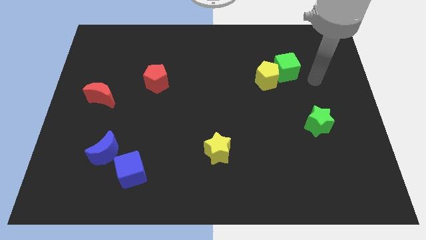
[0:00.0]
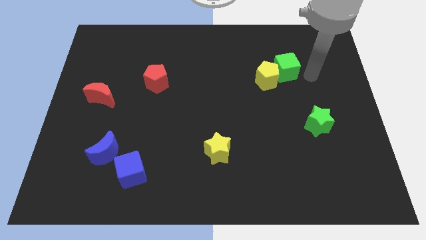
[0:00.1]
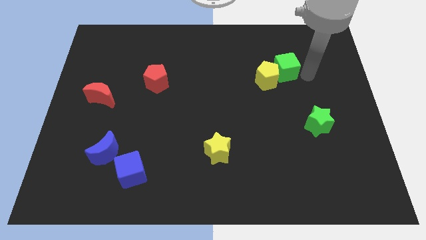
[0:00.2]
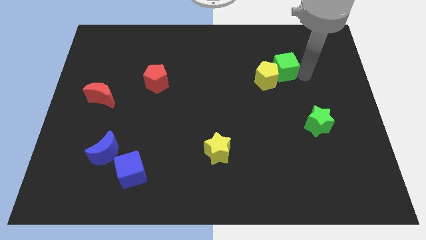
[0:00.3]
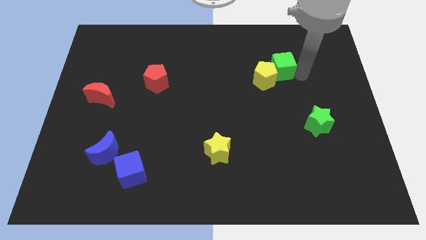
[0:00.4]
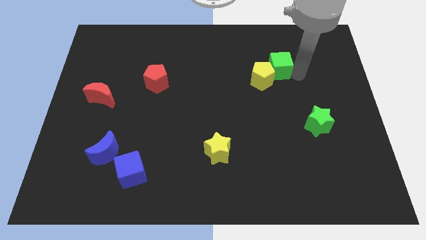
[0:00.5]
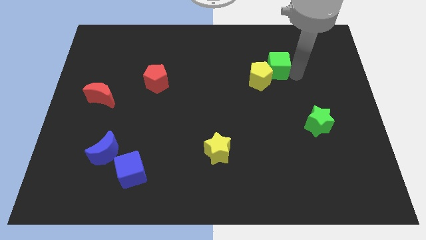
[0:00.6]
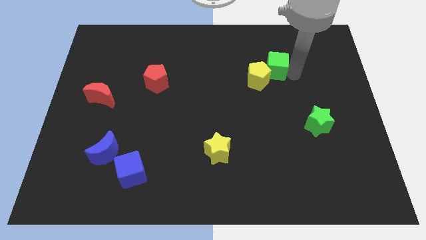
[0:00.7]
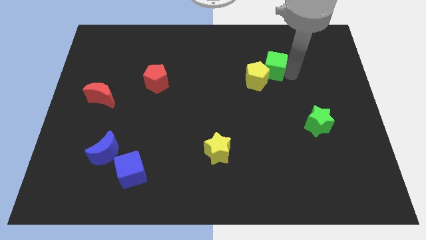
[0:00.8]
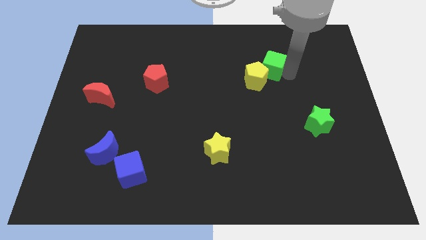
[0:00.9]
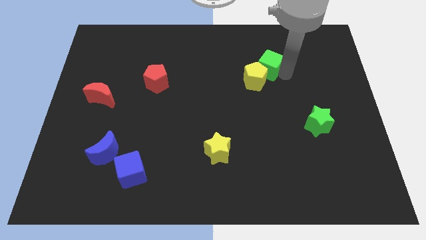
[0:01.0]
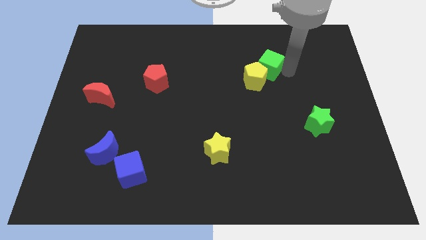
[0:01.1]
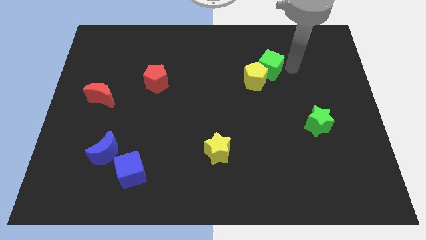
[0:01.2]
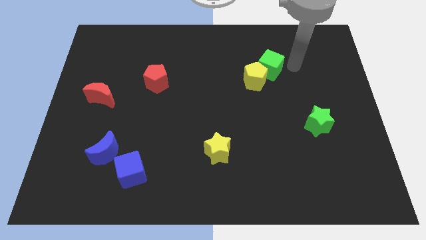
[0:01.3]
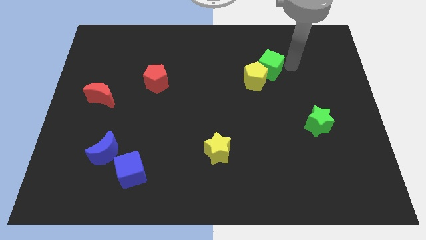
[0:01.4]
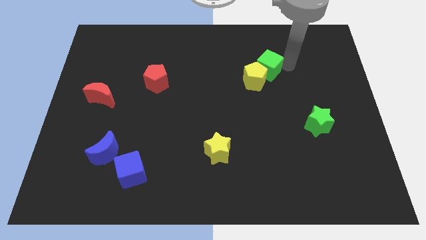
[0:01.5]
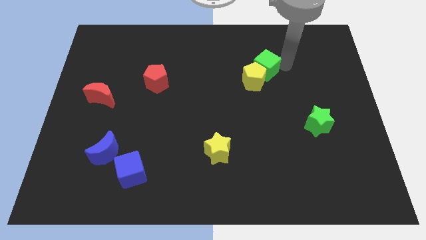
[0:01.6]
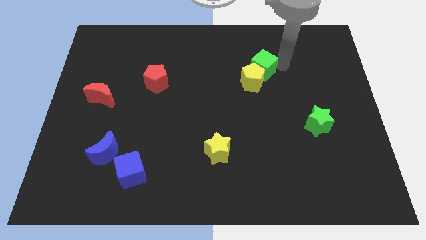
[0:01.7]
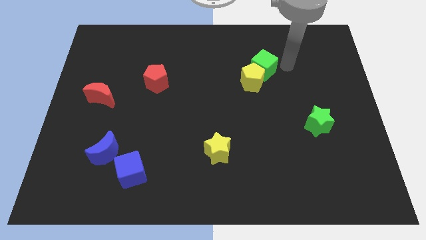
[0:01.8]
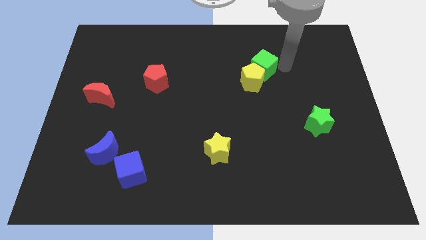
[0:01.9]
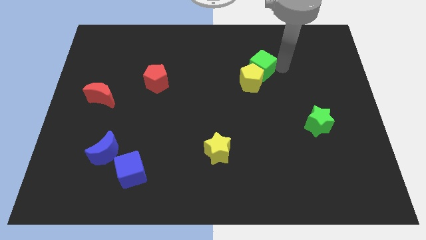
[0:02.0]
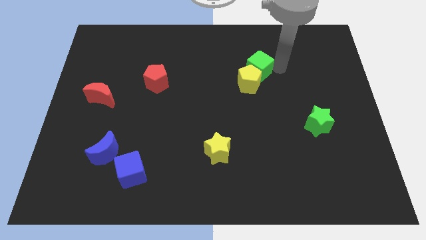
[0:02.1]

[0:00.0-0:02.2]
slightly push the green cube to the left

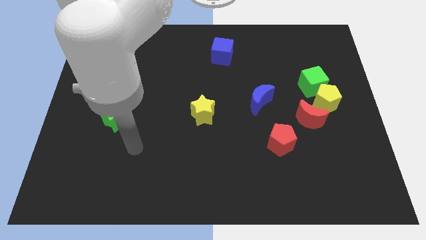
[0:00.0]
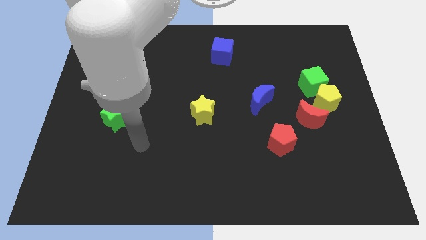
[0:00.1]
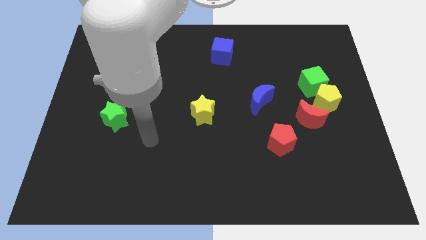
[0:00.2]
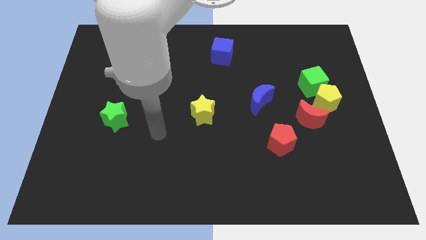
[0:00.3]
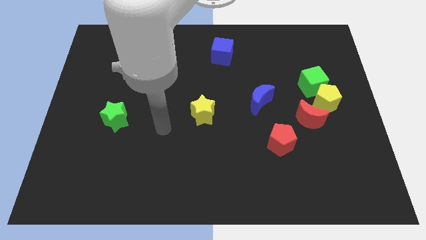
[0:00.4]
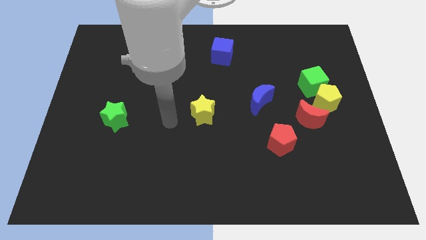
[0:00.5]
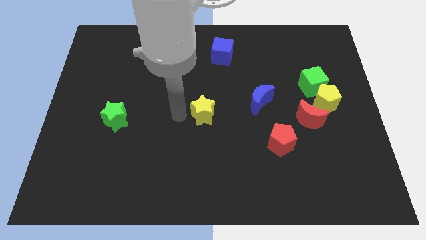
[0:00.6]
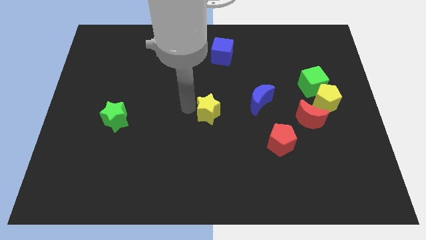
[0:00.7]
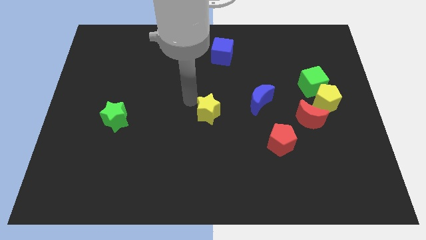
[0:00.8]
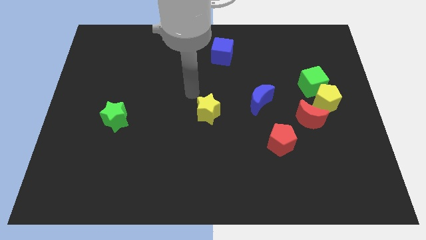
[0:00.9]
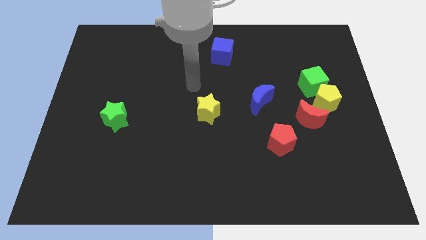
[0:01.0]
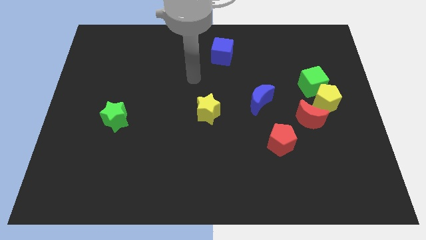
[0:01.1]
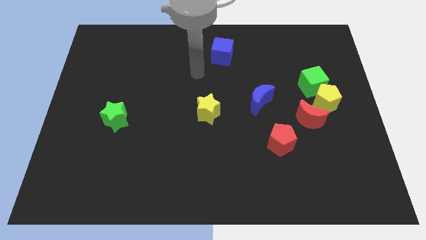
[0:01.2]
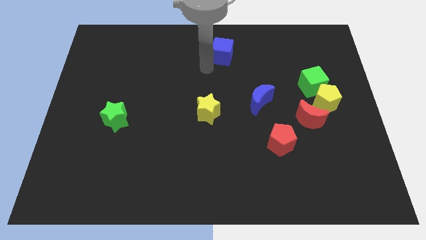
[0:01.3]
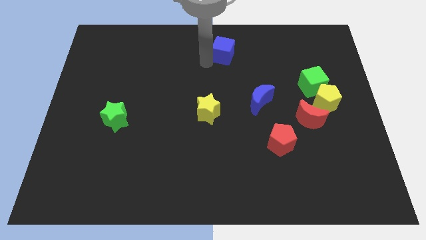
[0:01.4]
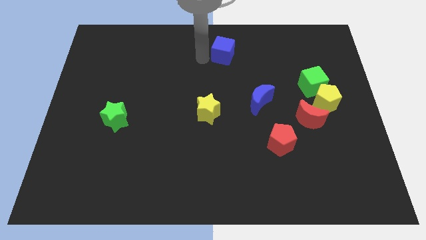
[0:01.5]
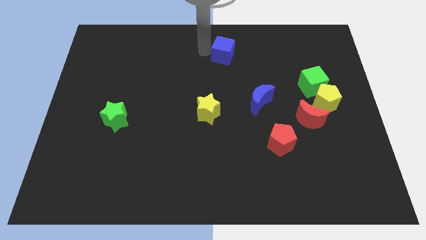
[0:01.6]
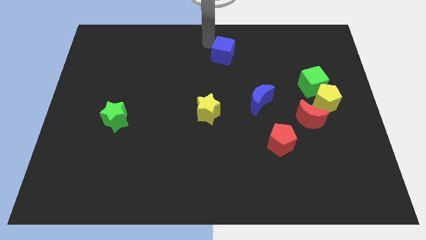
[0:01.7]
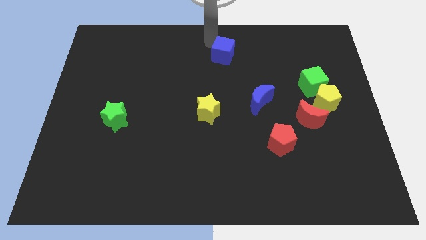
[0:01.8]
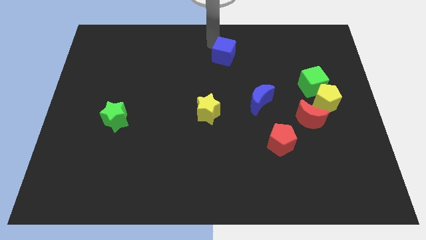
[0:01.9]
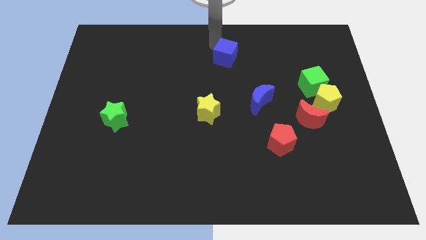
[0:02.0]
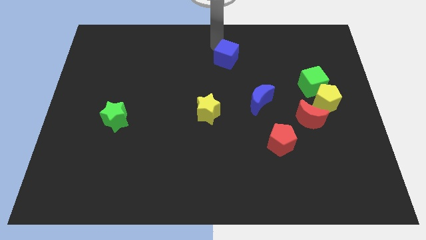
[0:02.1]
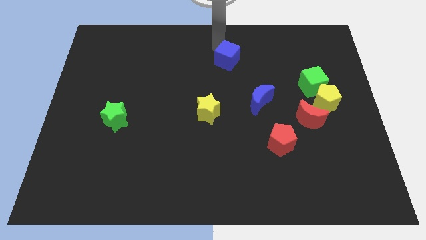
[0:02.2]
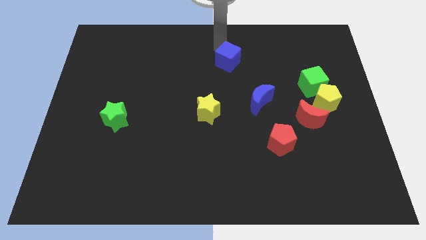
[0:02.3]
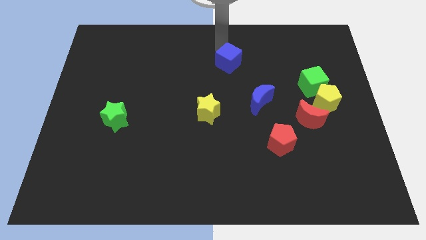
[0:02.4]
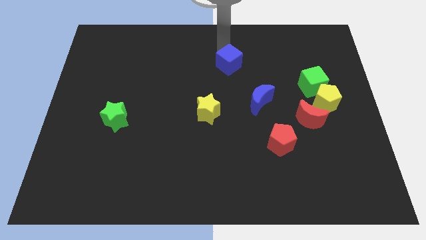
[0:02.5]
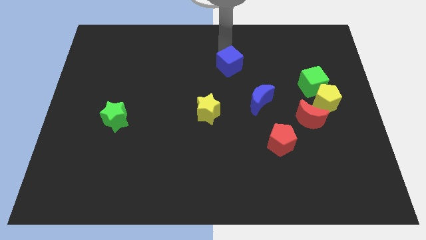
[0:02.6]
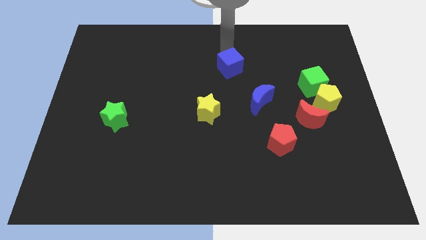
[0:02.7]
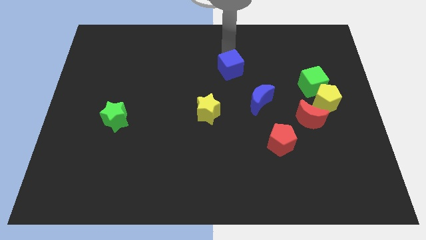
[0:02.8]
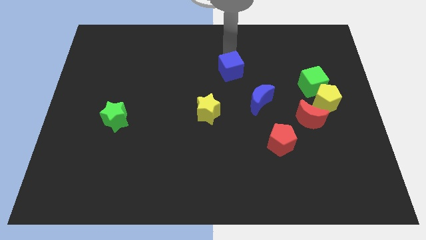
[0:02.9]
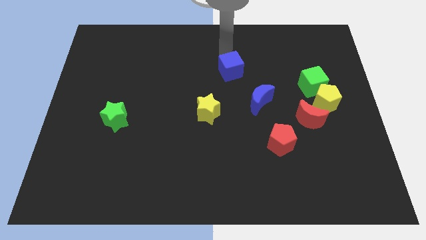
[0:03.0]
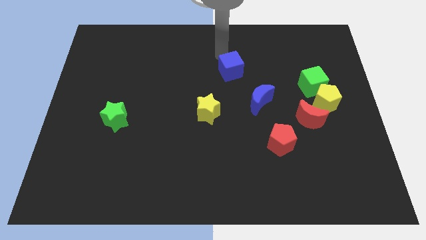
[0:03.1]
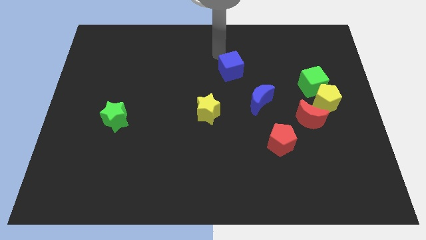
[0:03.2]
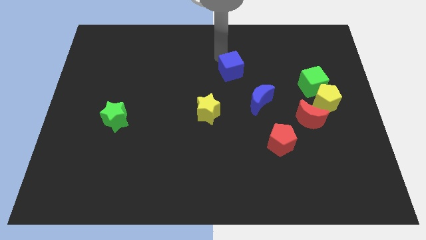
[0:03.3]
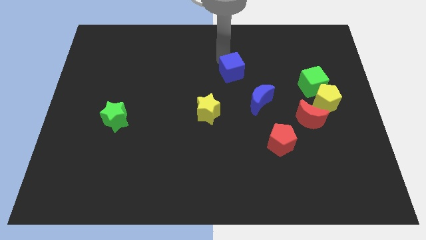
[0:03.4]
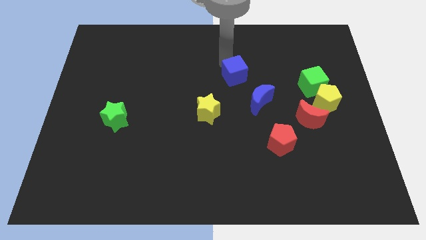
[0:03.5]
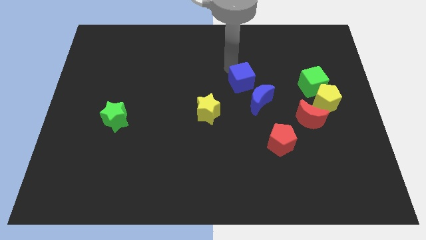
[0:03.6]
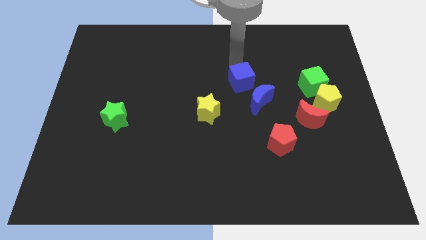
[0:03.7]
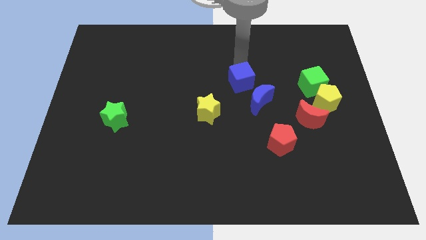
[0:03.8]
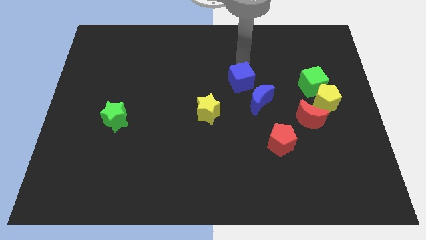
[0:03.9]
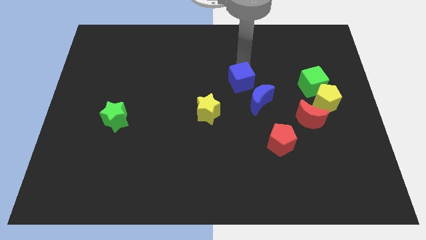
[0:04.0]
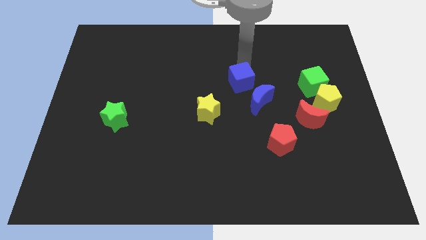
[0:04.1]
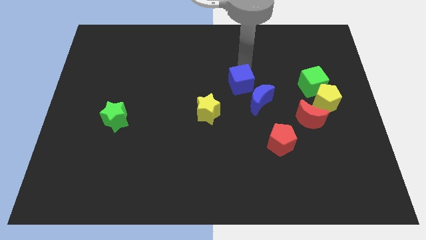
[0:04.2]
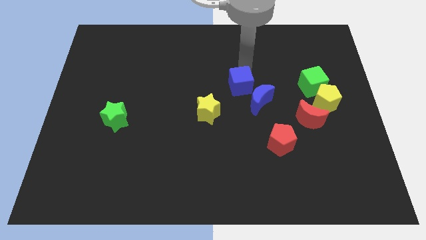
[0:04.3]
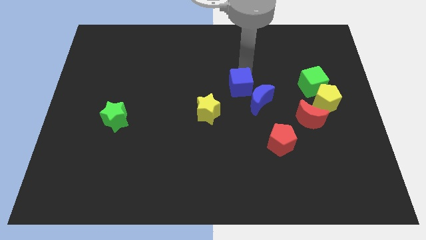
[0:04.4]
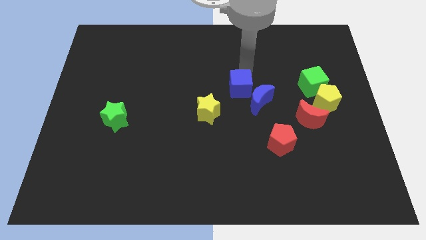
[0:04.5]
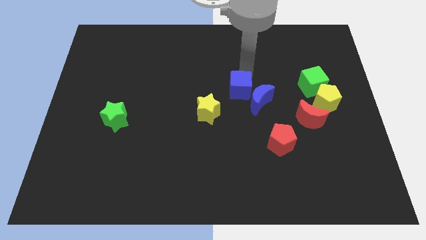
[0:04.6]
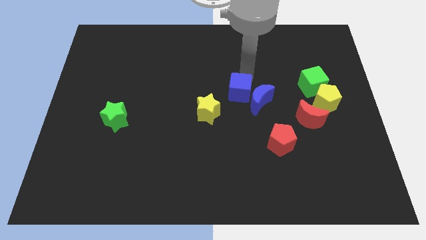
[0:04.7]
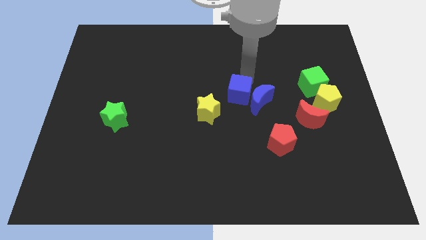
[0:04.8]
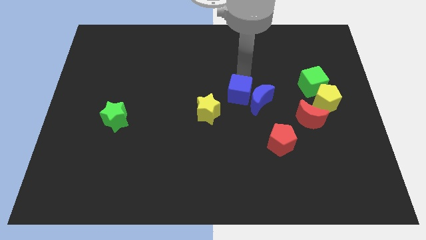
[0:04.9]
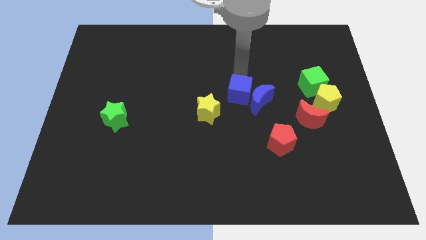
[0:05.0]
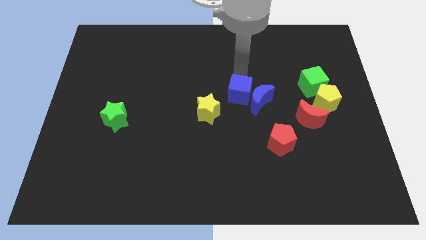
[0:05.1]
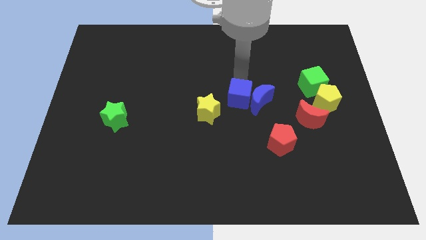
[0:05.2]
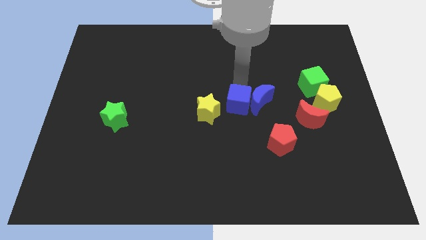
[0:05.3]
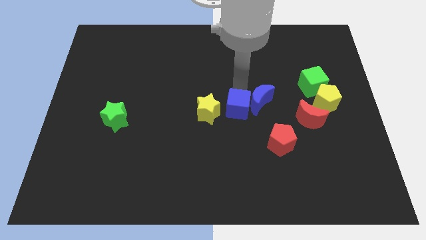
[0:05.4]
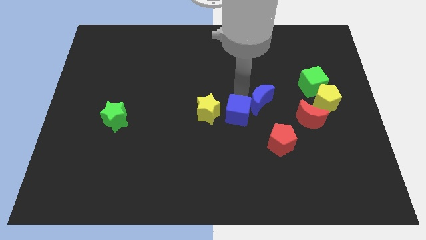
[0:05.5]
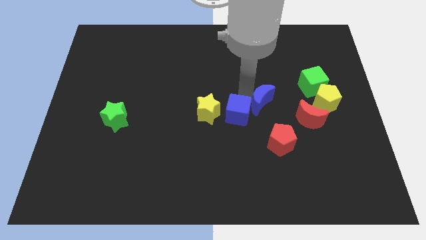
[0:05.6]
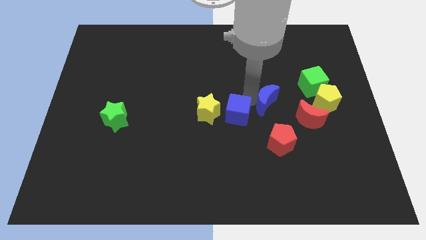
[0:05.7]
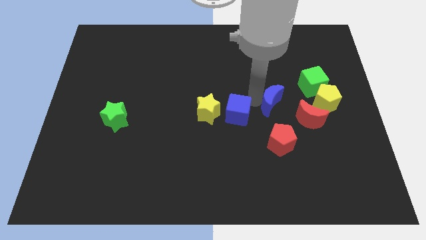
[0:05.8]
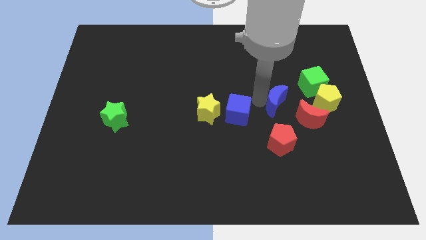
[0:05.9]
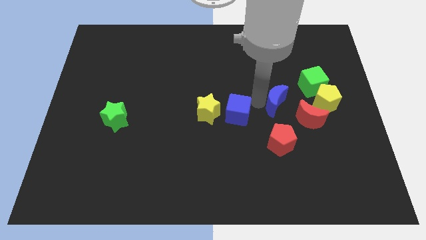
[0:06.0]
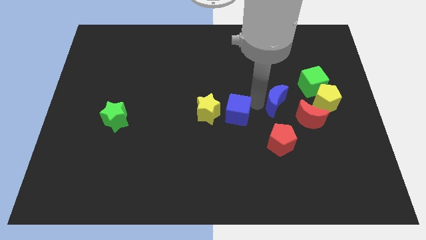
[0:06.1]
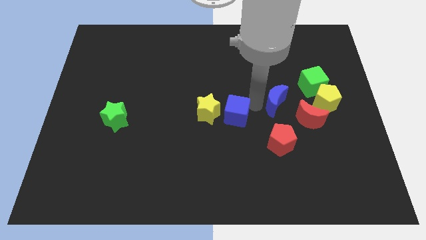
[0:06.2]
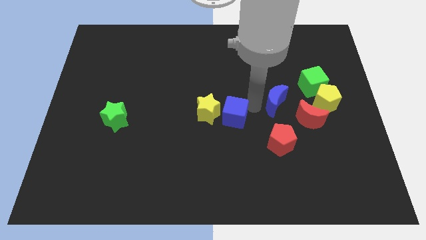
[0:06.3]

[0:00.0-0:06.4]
move the blue cube down
